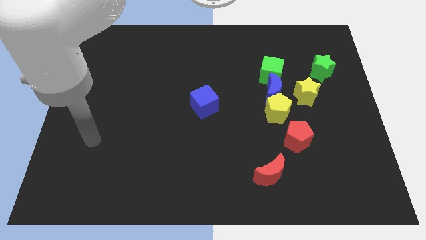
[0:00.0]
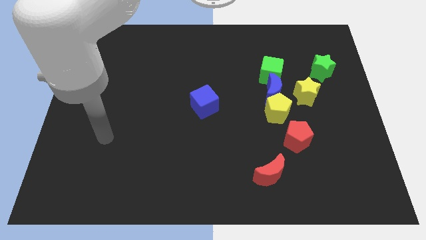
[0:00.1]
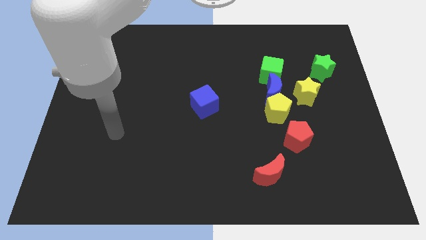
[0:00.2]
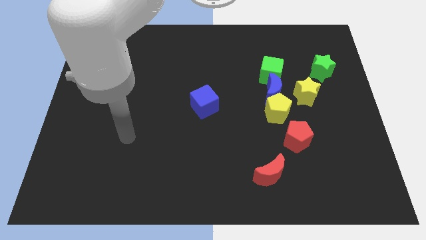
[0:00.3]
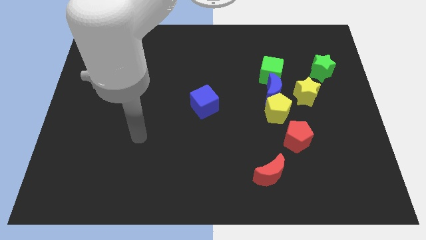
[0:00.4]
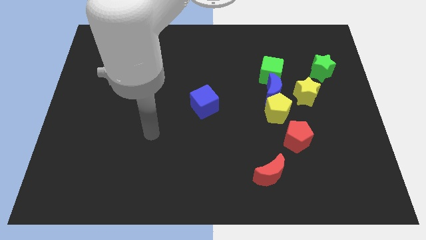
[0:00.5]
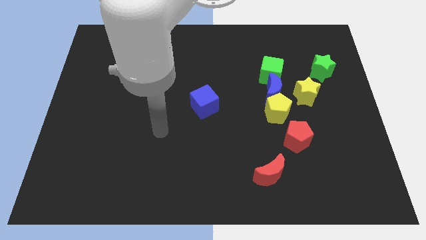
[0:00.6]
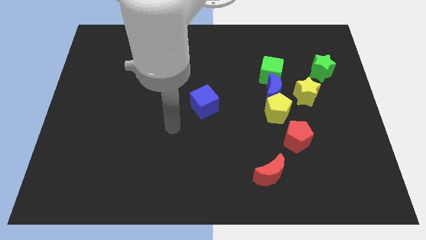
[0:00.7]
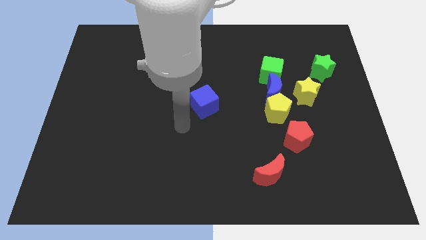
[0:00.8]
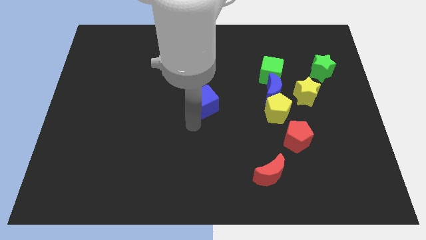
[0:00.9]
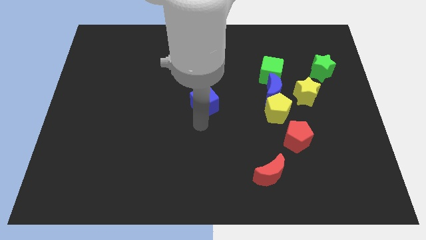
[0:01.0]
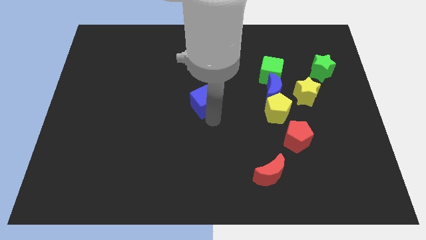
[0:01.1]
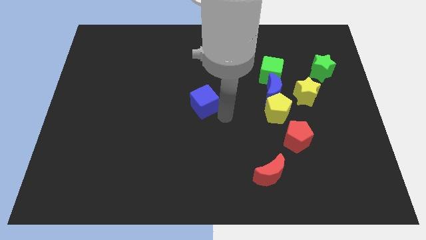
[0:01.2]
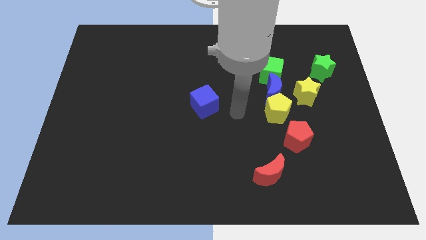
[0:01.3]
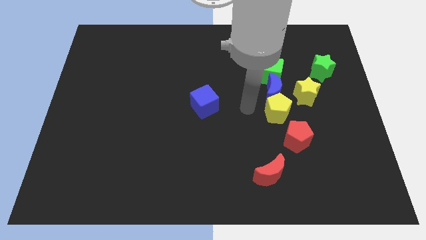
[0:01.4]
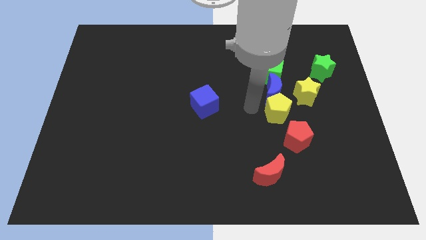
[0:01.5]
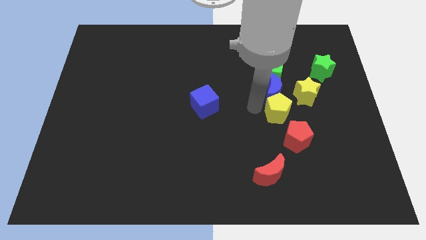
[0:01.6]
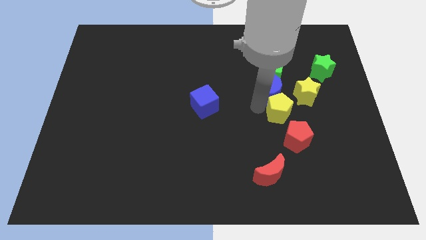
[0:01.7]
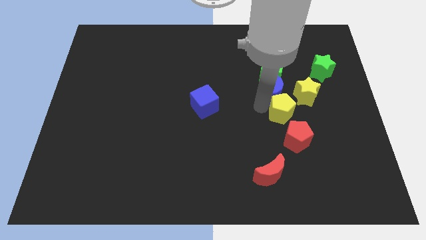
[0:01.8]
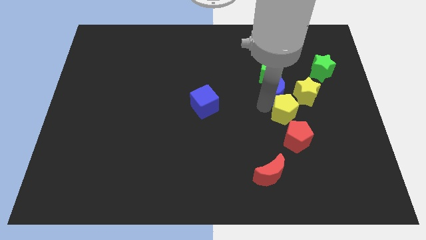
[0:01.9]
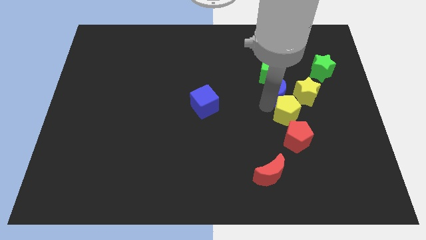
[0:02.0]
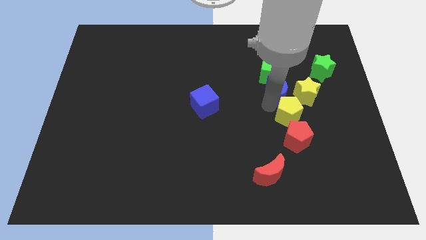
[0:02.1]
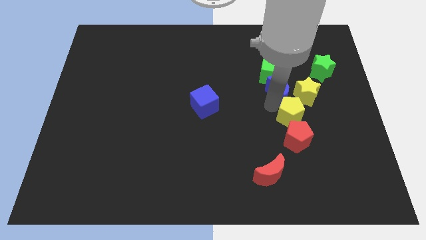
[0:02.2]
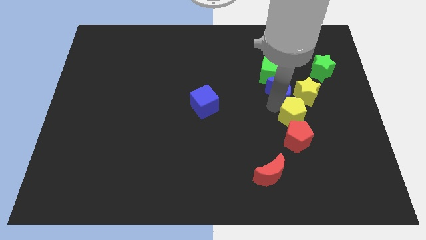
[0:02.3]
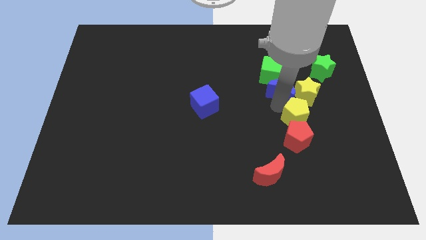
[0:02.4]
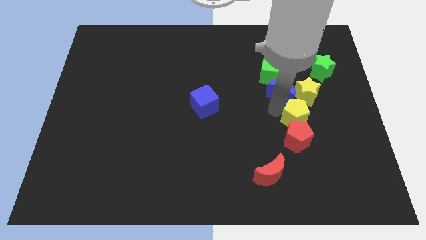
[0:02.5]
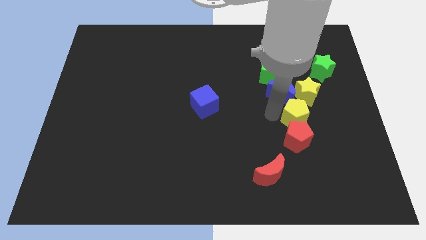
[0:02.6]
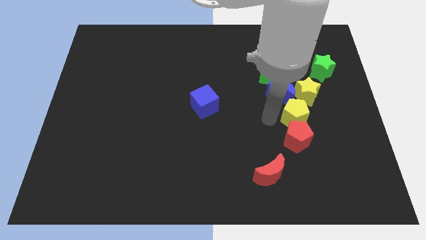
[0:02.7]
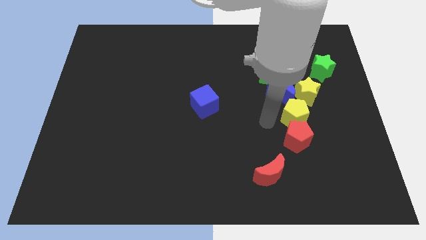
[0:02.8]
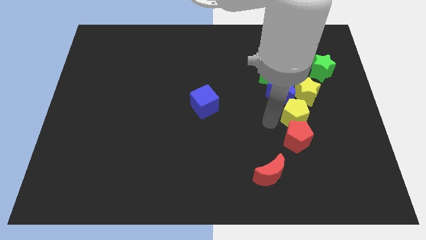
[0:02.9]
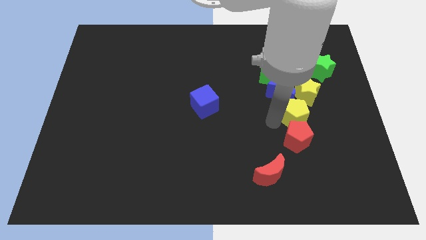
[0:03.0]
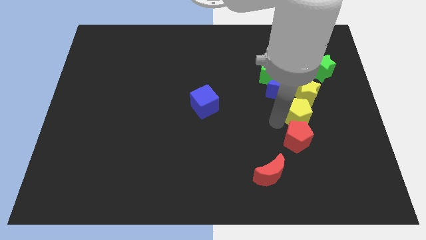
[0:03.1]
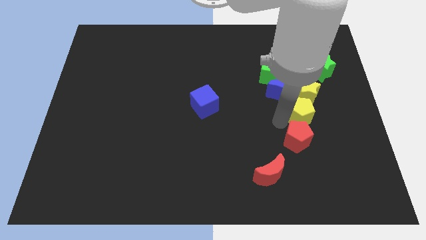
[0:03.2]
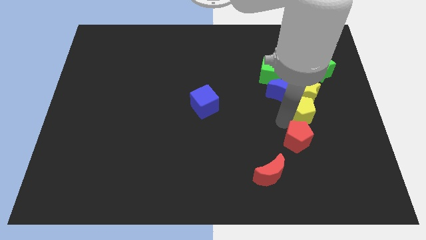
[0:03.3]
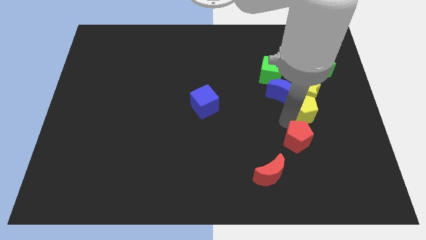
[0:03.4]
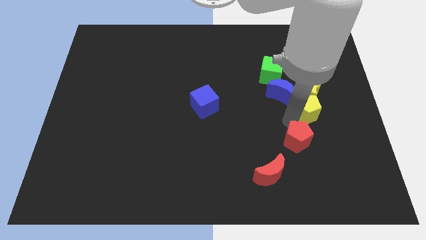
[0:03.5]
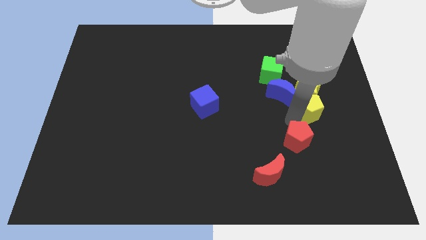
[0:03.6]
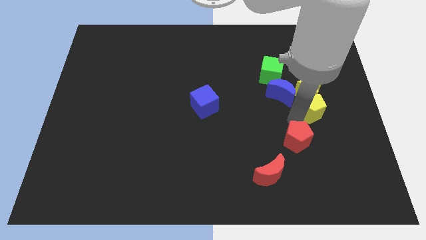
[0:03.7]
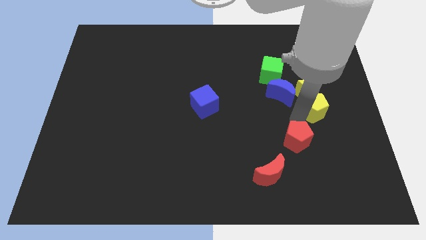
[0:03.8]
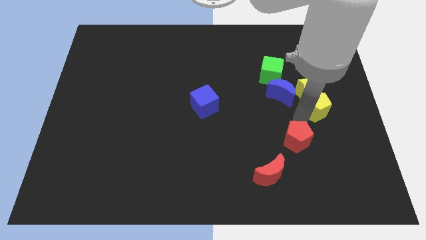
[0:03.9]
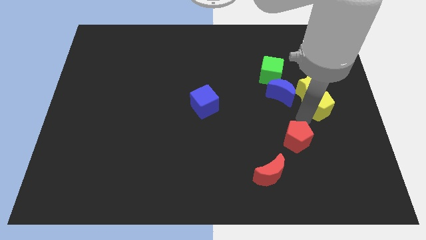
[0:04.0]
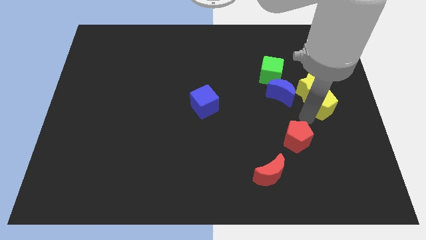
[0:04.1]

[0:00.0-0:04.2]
put the yellow pentagon to the right side of the board

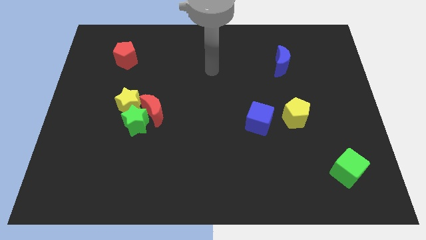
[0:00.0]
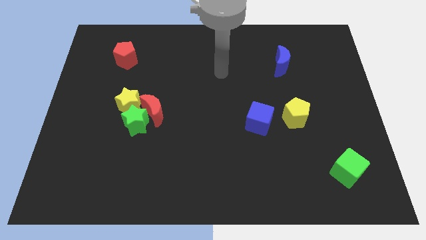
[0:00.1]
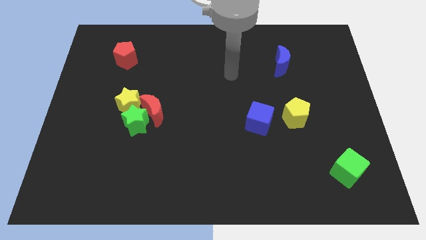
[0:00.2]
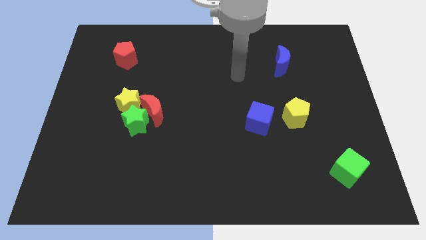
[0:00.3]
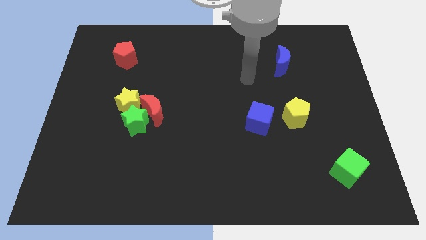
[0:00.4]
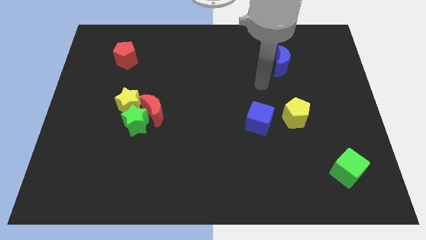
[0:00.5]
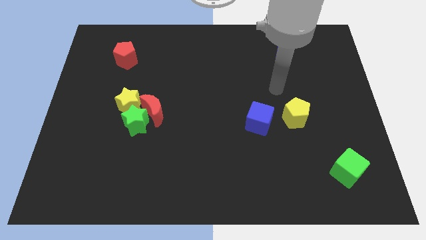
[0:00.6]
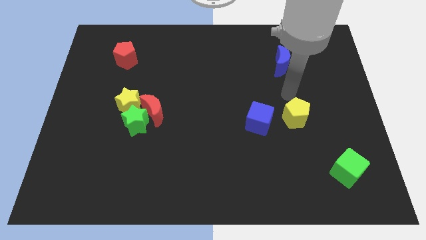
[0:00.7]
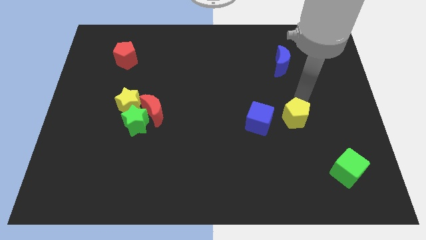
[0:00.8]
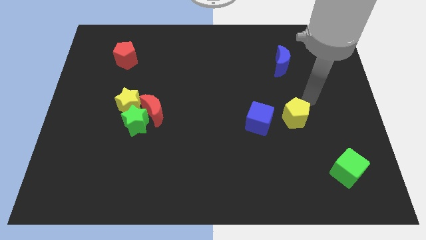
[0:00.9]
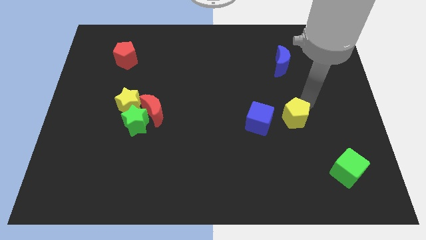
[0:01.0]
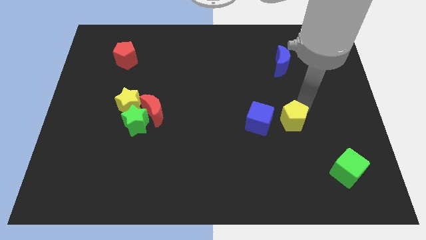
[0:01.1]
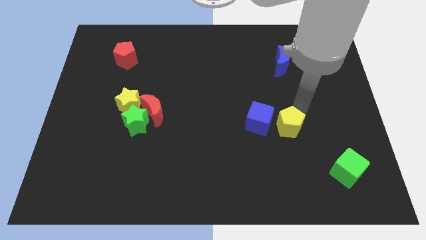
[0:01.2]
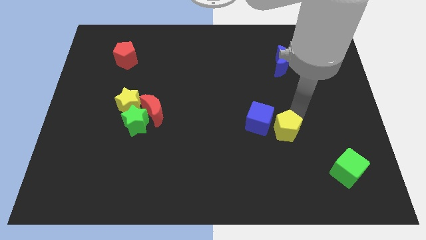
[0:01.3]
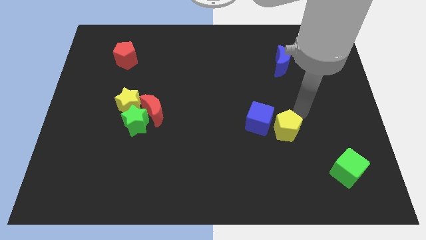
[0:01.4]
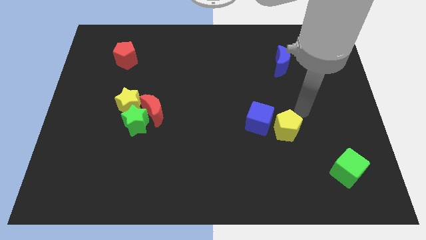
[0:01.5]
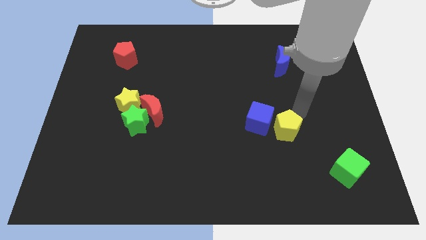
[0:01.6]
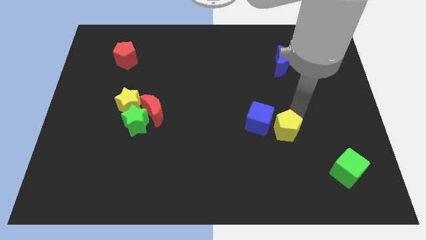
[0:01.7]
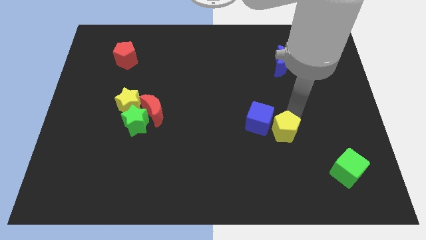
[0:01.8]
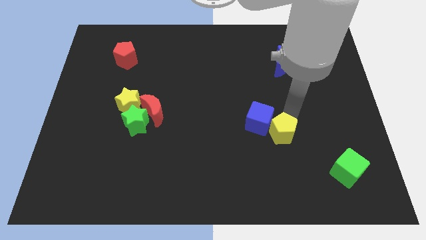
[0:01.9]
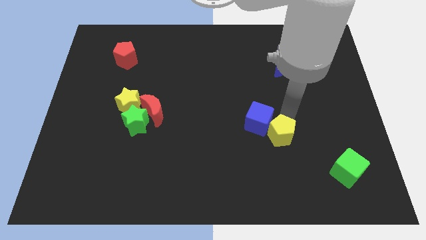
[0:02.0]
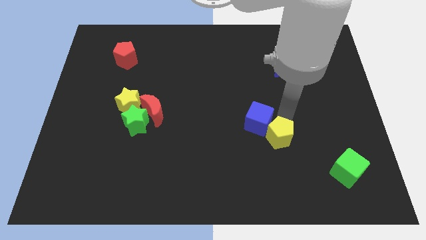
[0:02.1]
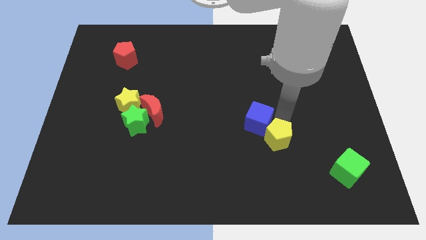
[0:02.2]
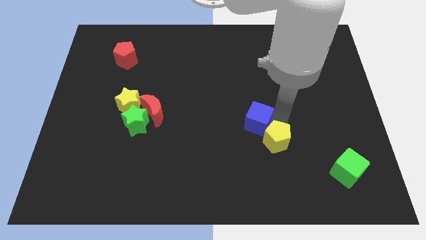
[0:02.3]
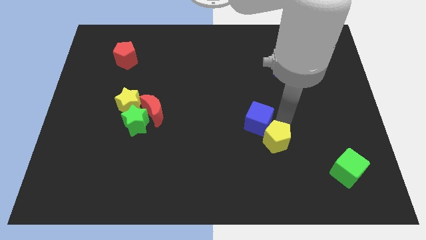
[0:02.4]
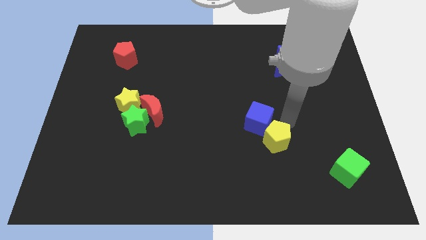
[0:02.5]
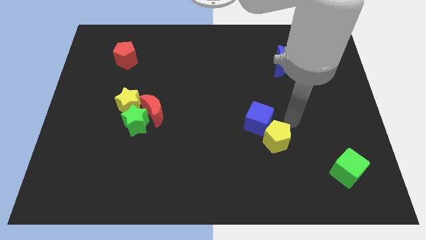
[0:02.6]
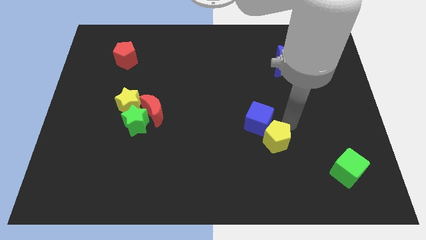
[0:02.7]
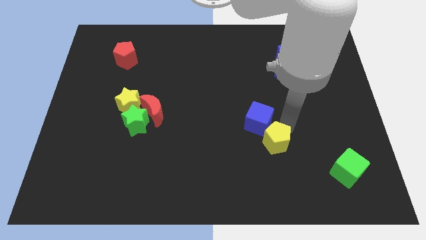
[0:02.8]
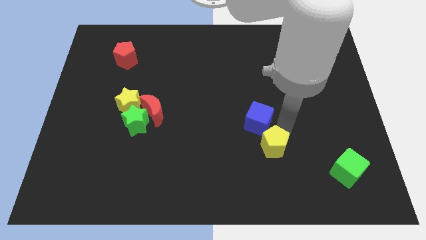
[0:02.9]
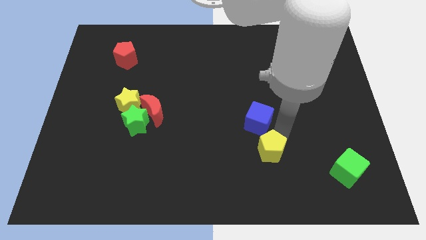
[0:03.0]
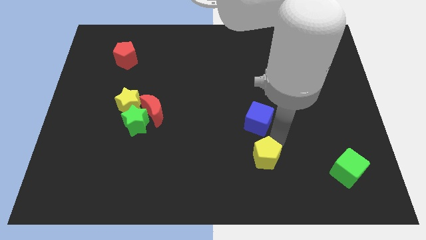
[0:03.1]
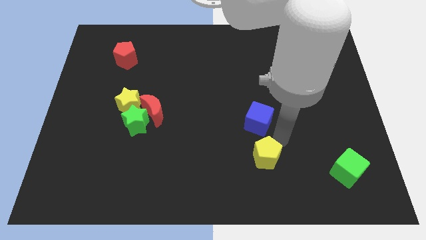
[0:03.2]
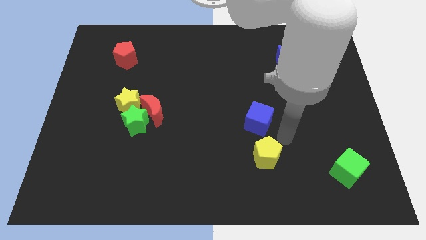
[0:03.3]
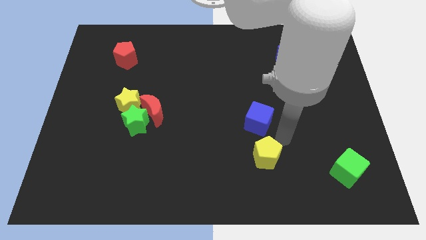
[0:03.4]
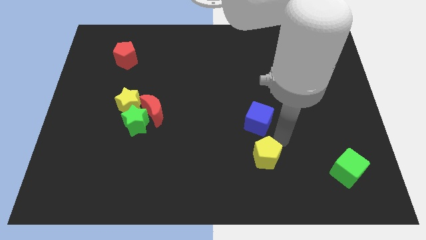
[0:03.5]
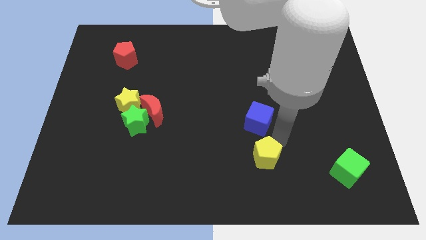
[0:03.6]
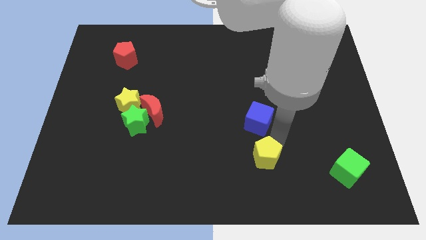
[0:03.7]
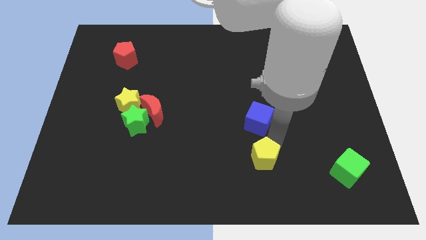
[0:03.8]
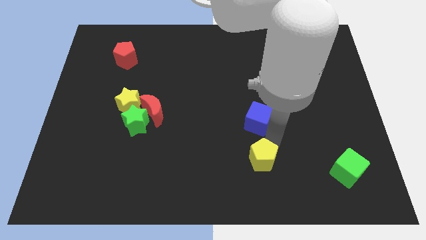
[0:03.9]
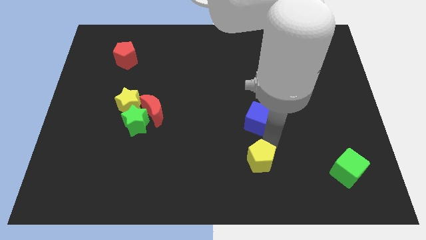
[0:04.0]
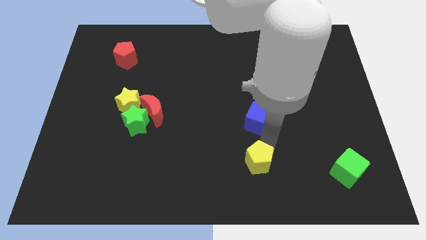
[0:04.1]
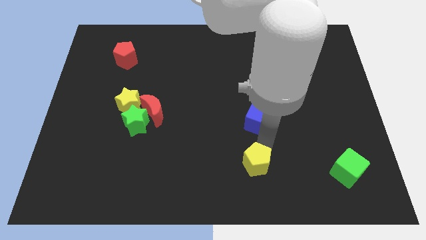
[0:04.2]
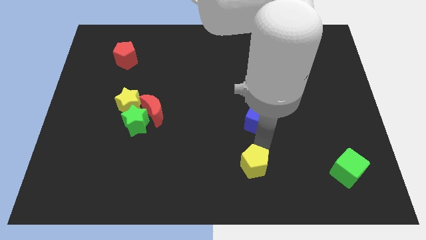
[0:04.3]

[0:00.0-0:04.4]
put the yellow pentagon to the bottom side
